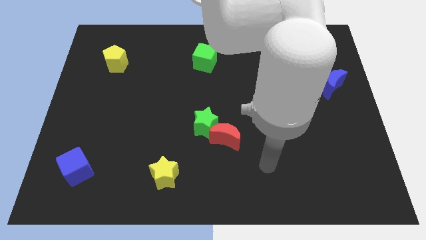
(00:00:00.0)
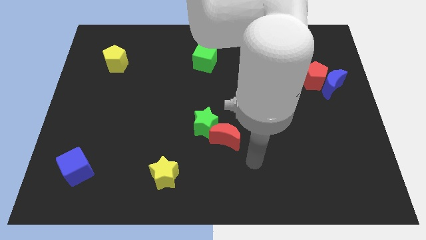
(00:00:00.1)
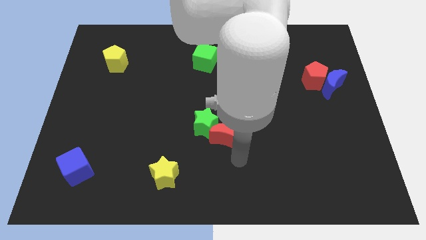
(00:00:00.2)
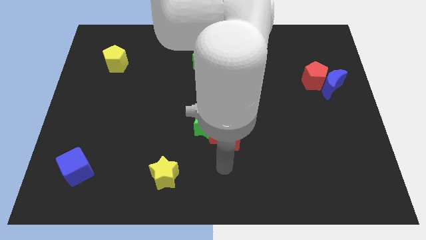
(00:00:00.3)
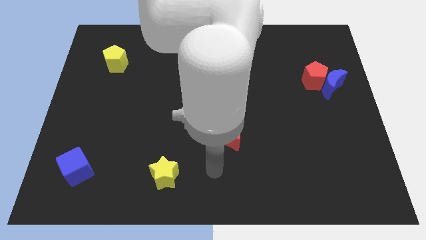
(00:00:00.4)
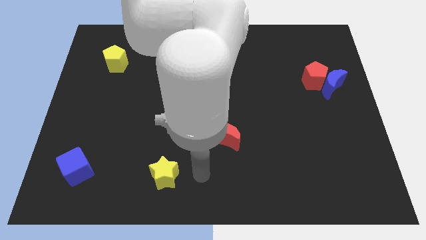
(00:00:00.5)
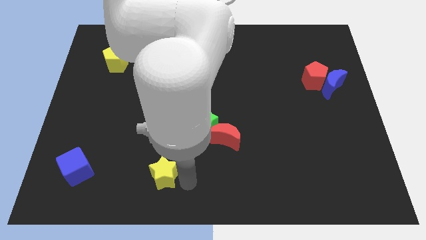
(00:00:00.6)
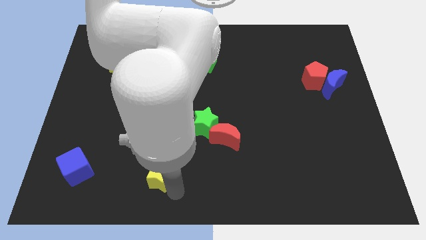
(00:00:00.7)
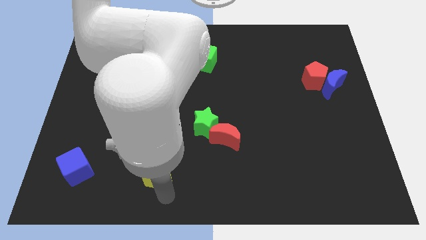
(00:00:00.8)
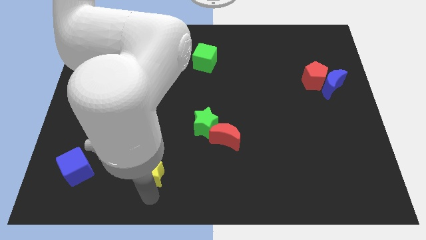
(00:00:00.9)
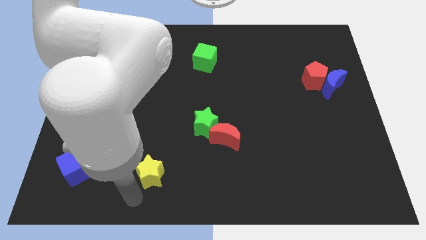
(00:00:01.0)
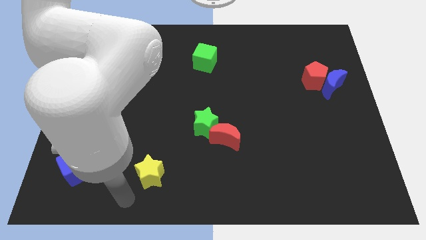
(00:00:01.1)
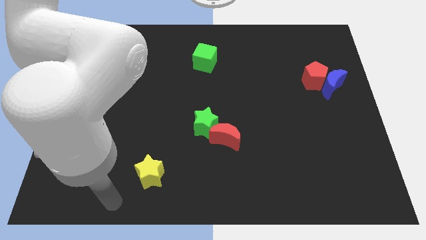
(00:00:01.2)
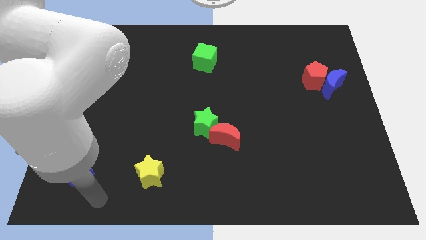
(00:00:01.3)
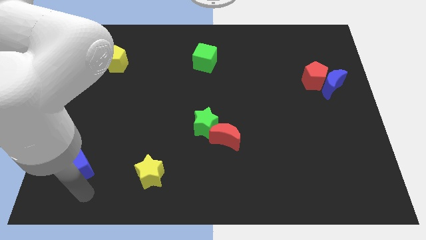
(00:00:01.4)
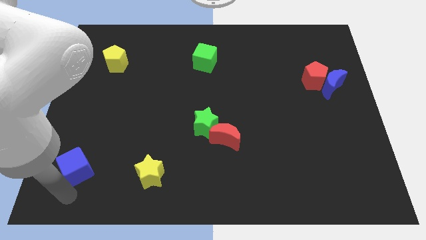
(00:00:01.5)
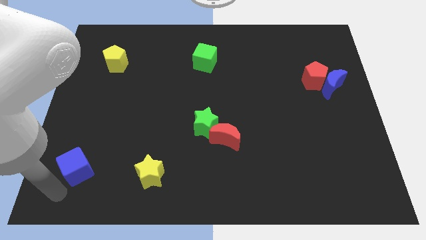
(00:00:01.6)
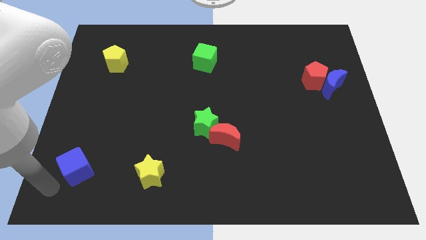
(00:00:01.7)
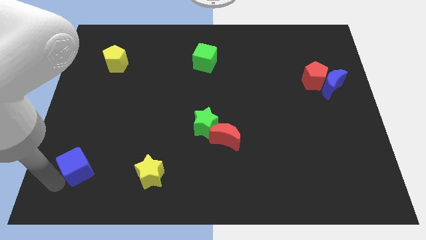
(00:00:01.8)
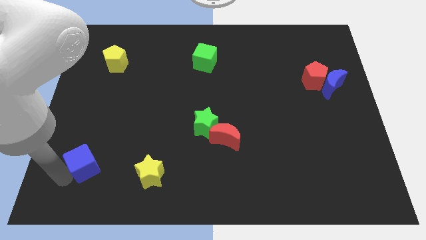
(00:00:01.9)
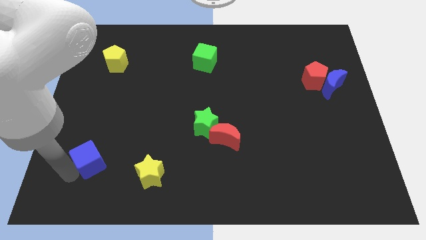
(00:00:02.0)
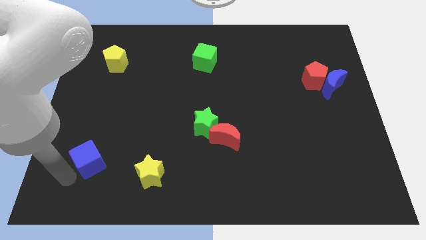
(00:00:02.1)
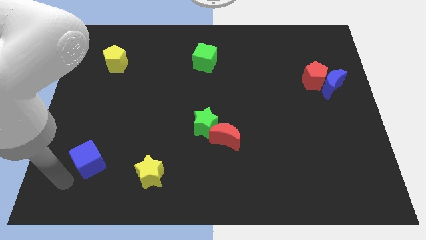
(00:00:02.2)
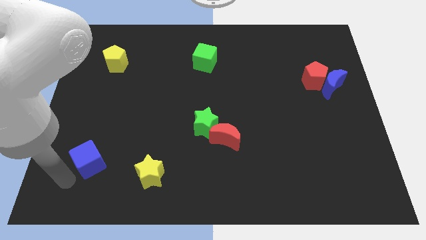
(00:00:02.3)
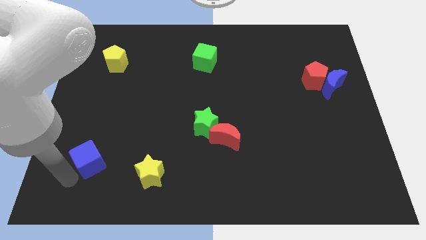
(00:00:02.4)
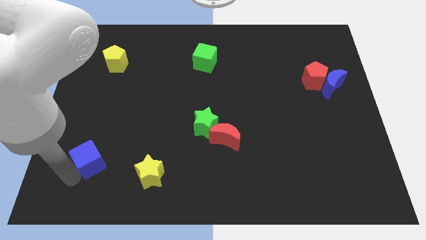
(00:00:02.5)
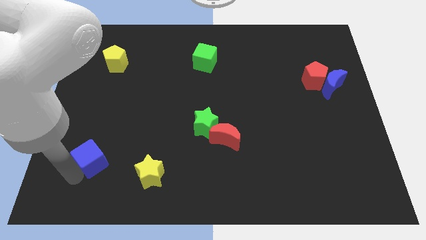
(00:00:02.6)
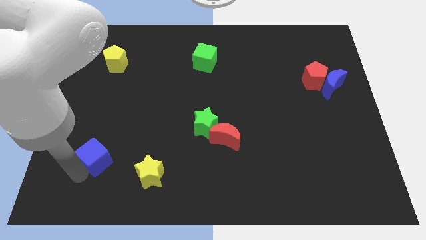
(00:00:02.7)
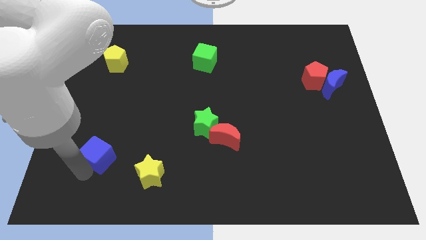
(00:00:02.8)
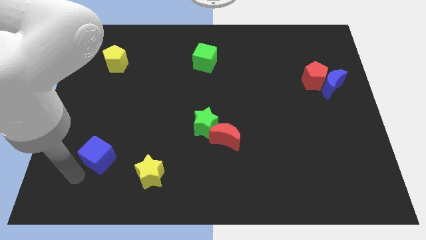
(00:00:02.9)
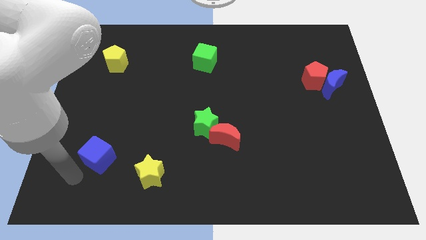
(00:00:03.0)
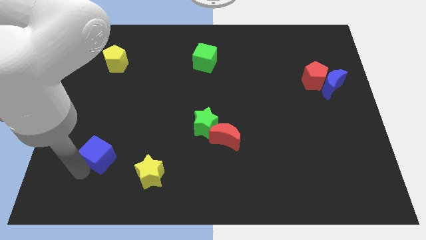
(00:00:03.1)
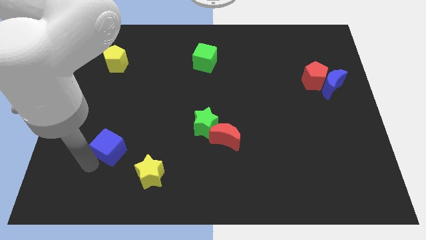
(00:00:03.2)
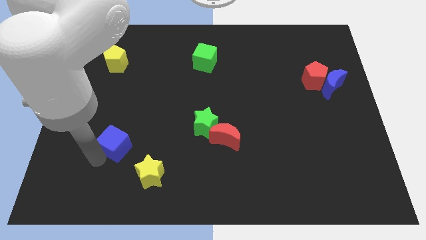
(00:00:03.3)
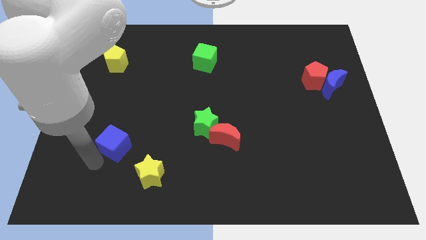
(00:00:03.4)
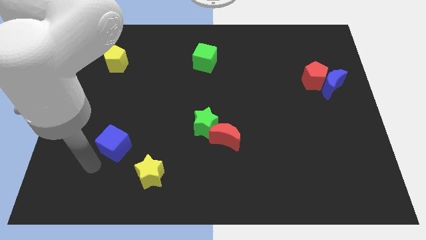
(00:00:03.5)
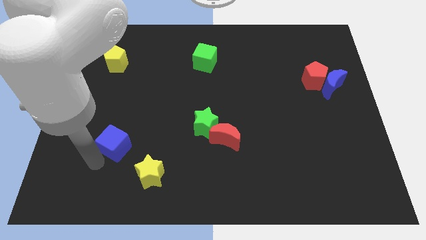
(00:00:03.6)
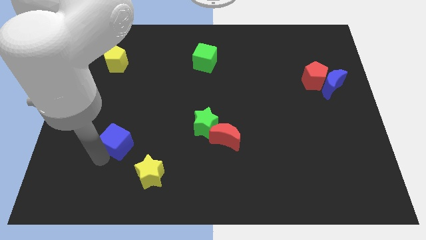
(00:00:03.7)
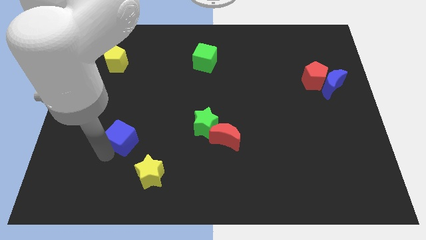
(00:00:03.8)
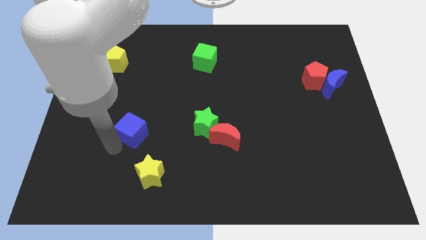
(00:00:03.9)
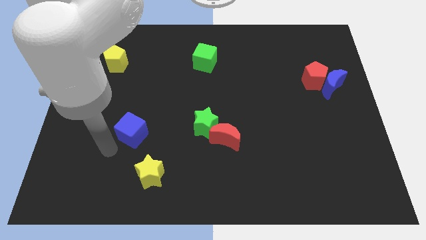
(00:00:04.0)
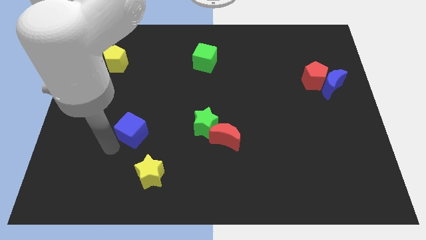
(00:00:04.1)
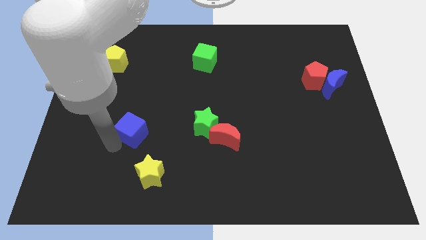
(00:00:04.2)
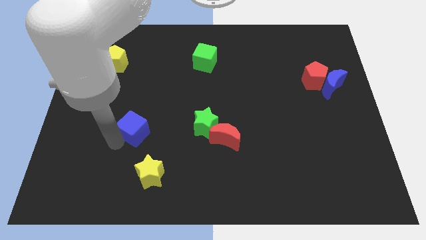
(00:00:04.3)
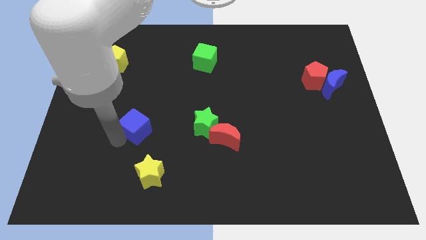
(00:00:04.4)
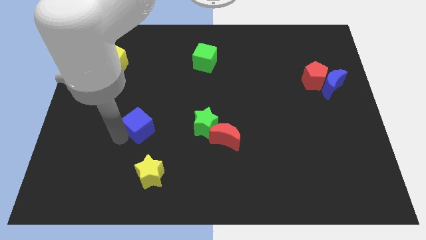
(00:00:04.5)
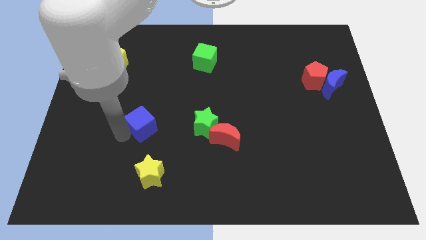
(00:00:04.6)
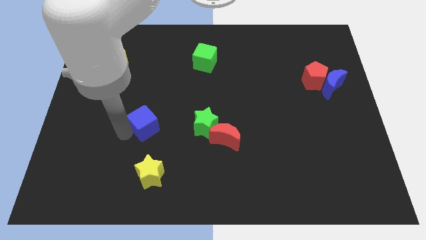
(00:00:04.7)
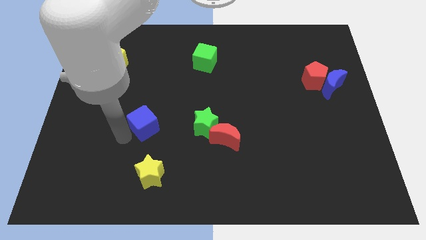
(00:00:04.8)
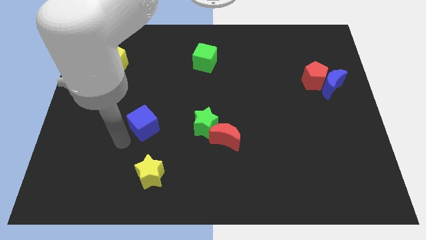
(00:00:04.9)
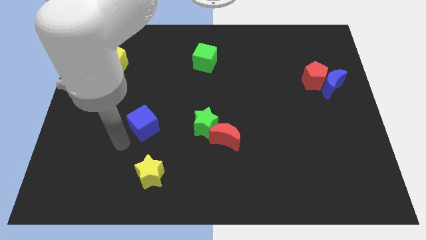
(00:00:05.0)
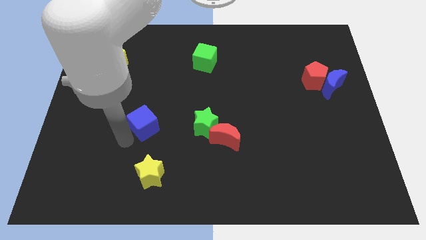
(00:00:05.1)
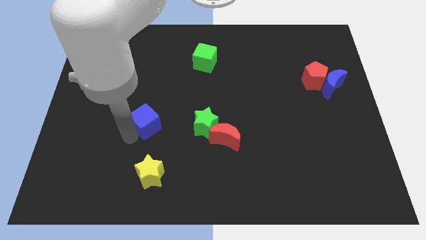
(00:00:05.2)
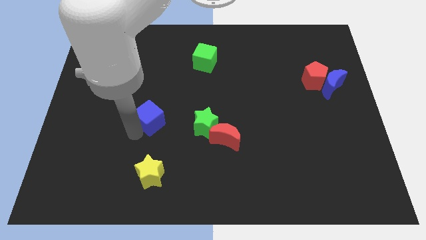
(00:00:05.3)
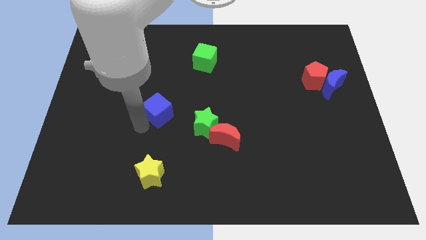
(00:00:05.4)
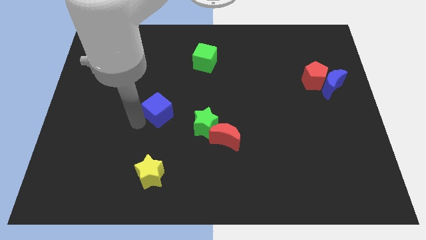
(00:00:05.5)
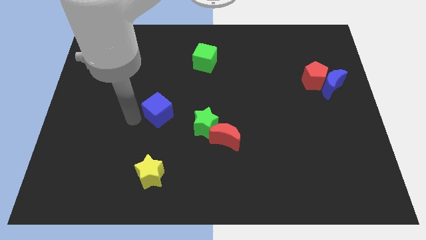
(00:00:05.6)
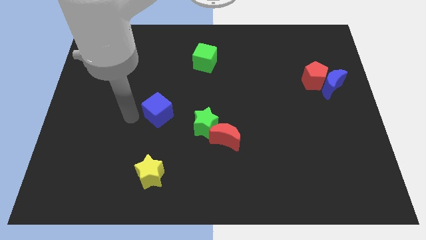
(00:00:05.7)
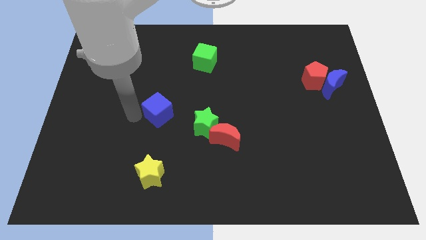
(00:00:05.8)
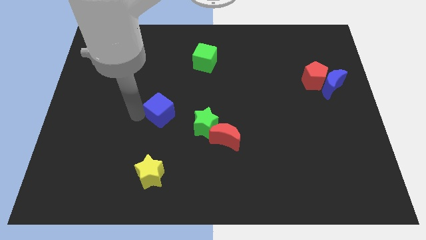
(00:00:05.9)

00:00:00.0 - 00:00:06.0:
slide the blue cube to the center
